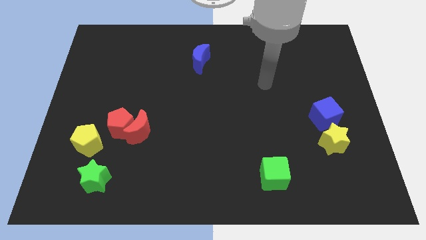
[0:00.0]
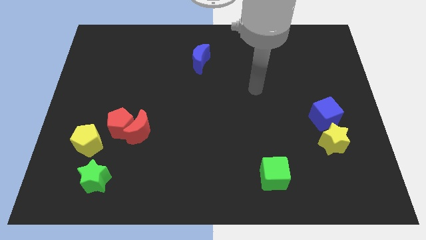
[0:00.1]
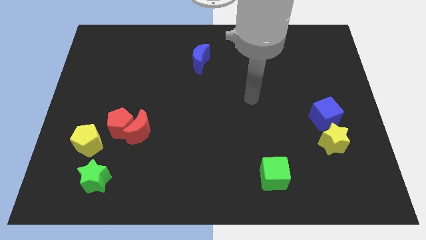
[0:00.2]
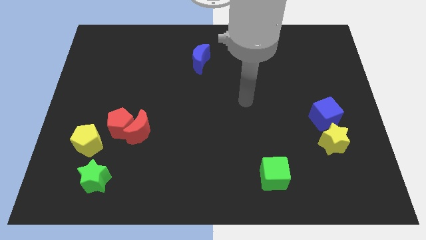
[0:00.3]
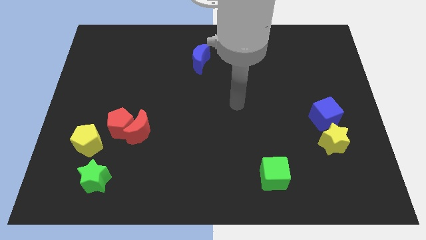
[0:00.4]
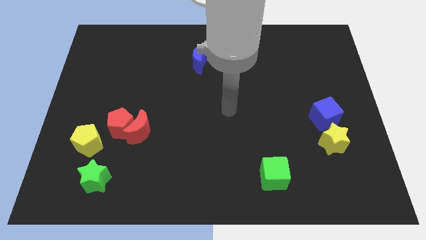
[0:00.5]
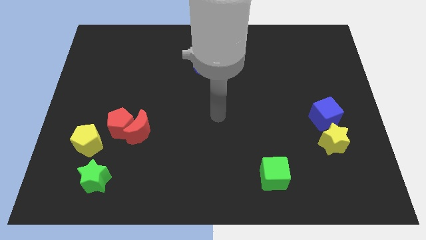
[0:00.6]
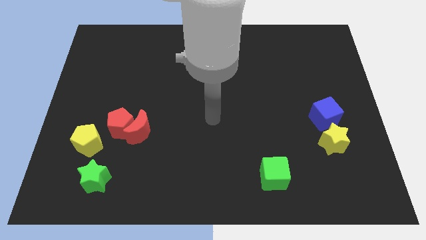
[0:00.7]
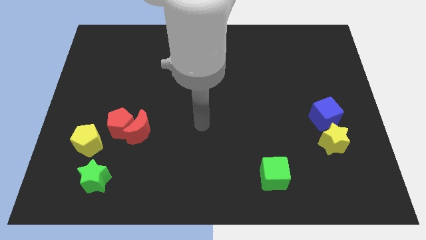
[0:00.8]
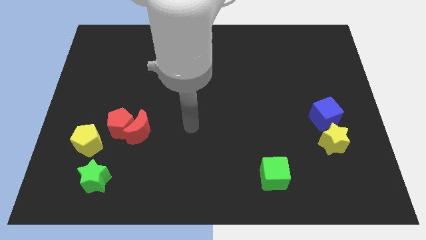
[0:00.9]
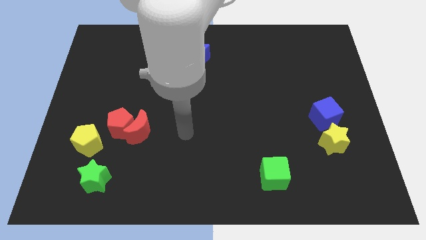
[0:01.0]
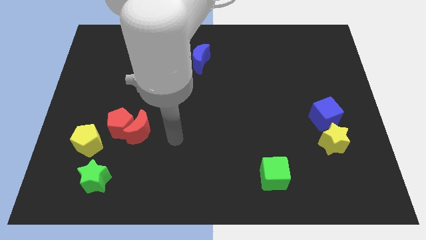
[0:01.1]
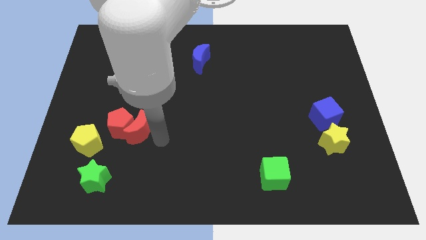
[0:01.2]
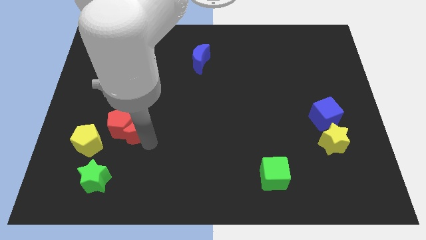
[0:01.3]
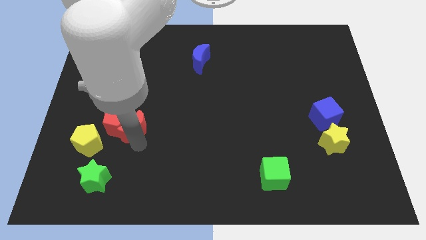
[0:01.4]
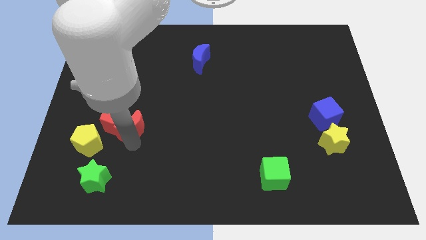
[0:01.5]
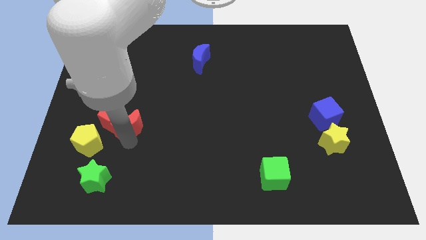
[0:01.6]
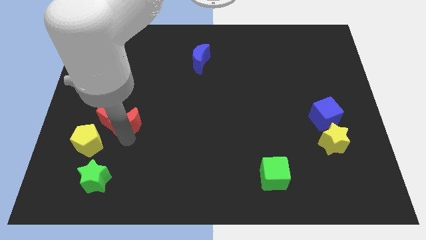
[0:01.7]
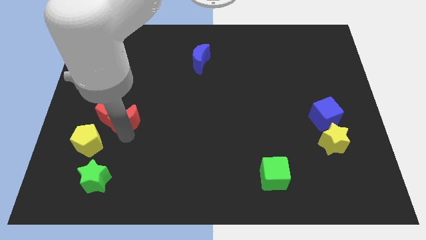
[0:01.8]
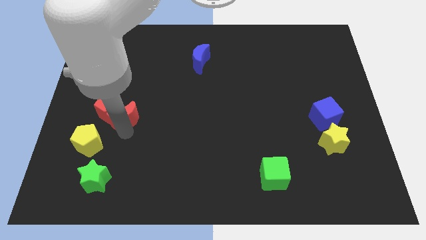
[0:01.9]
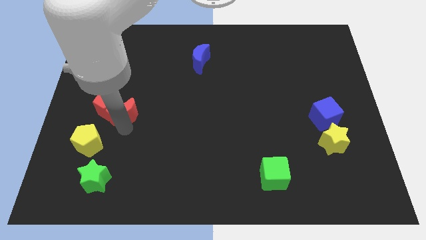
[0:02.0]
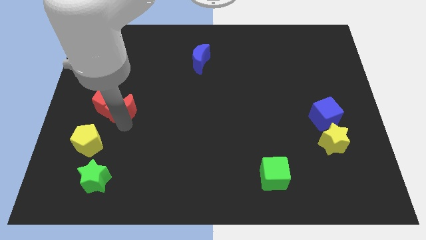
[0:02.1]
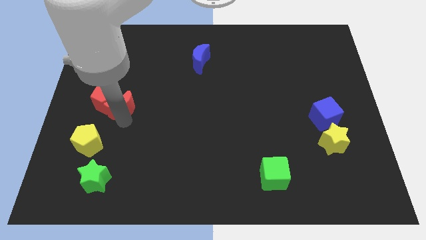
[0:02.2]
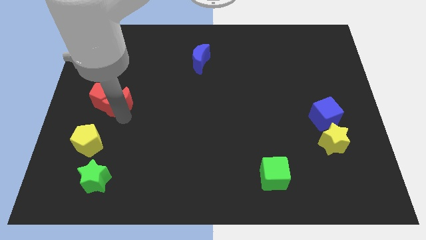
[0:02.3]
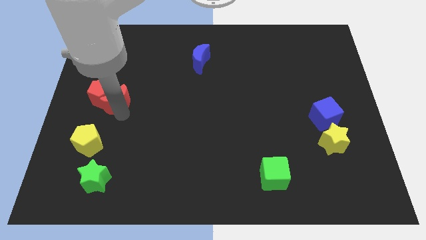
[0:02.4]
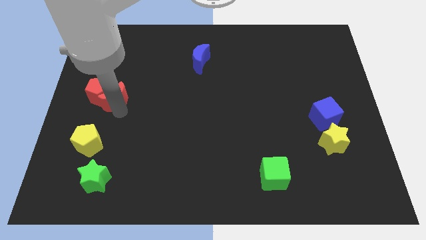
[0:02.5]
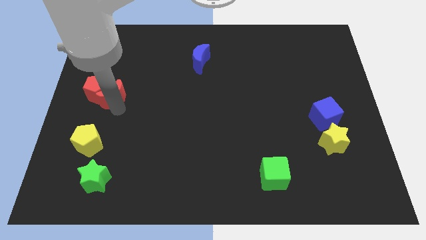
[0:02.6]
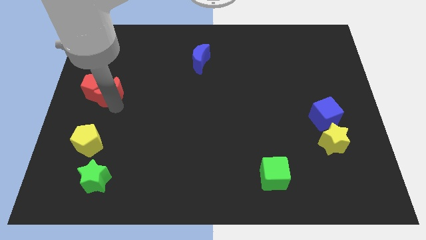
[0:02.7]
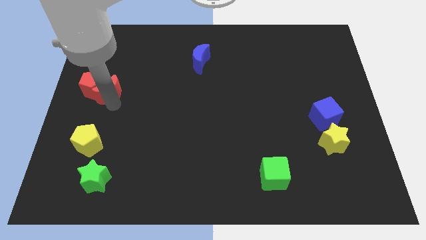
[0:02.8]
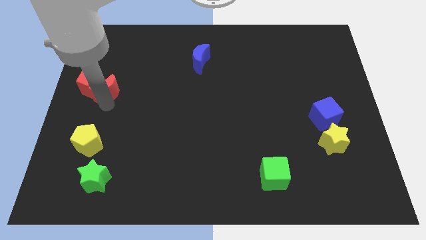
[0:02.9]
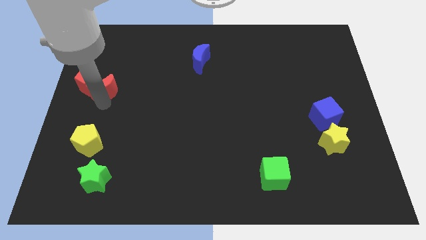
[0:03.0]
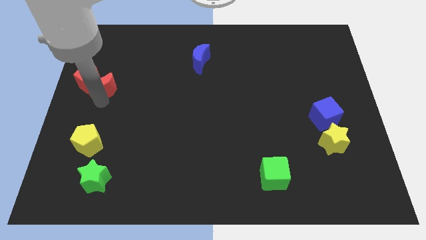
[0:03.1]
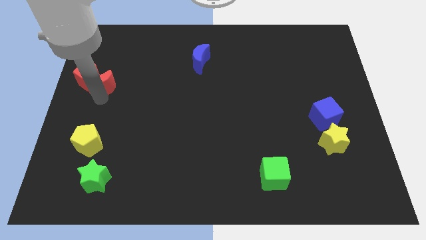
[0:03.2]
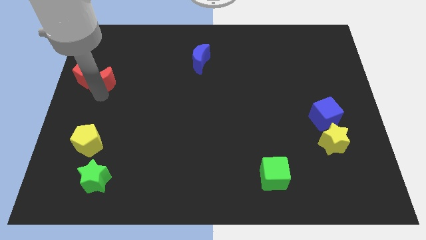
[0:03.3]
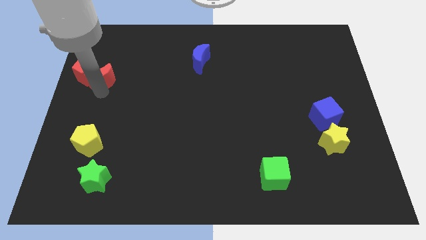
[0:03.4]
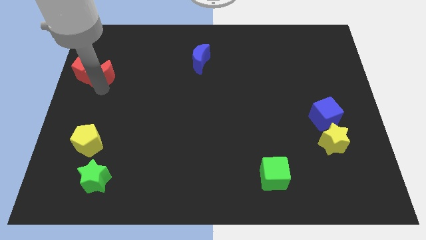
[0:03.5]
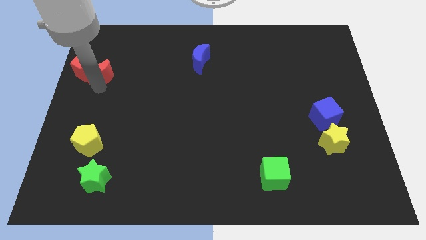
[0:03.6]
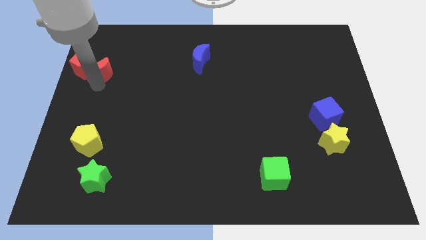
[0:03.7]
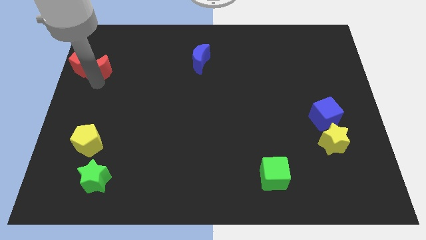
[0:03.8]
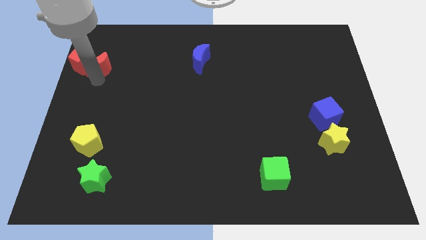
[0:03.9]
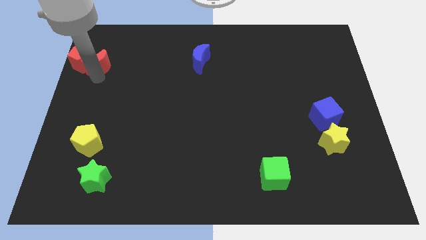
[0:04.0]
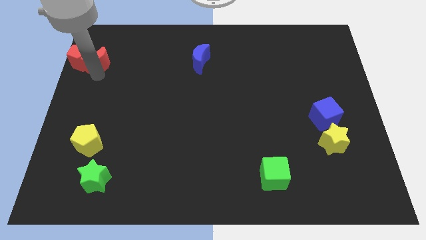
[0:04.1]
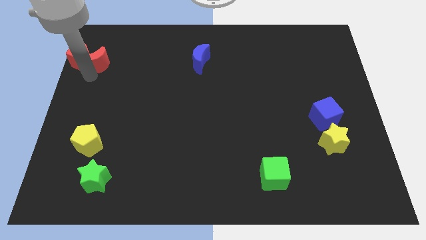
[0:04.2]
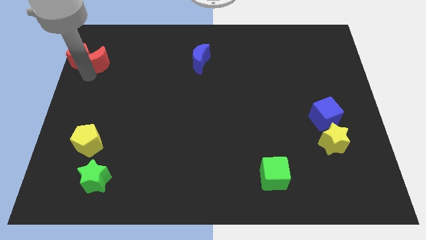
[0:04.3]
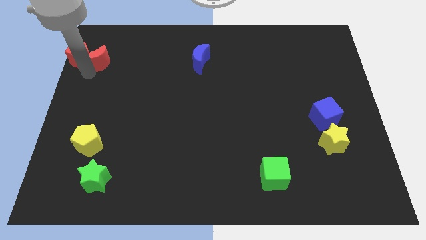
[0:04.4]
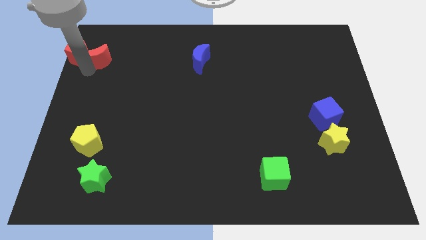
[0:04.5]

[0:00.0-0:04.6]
push the red pentagon to the top left

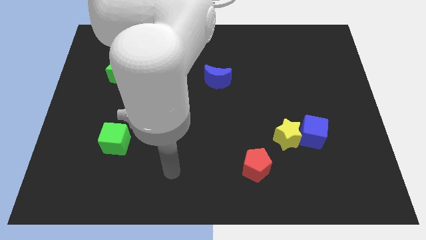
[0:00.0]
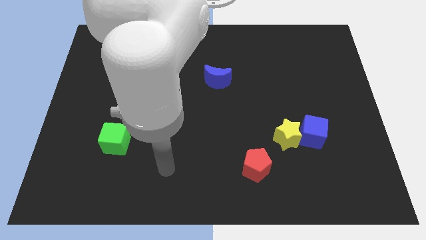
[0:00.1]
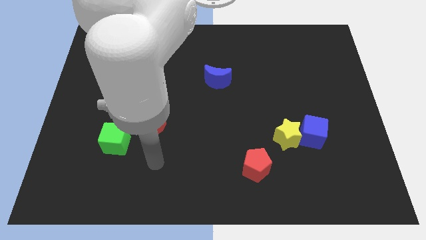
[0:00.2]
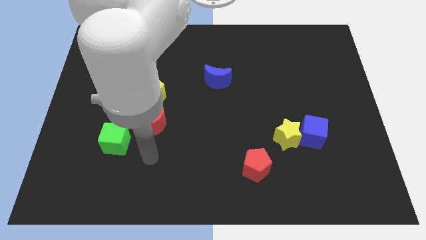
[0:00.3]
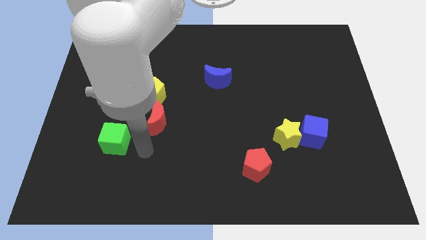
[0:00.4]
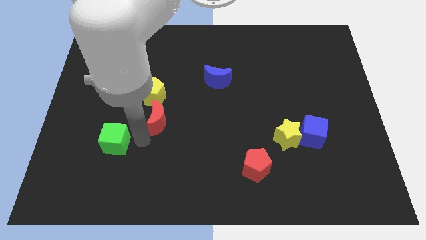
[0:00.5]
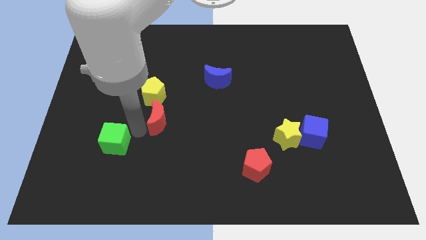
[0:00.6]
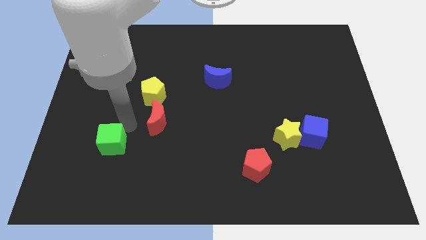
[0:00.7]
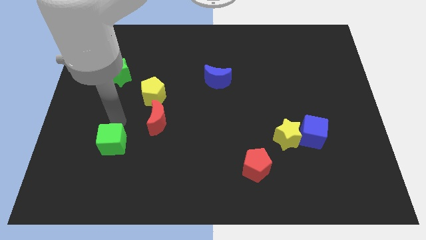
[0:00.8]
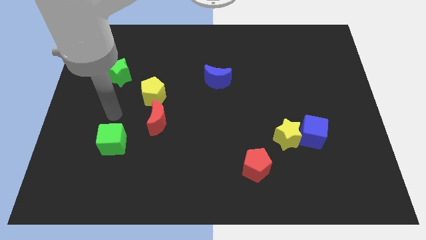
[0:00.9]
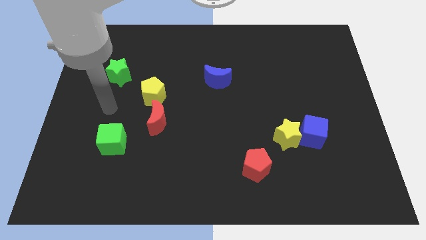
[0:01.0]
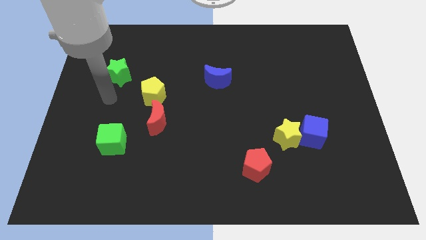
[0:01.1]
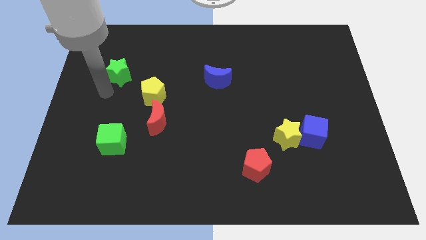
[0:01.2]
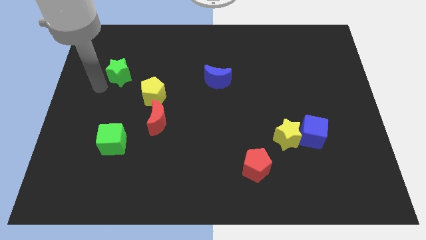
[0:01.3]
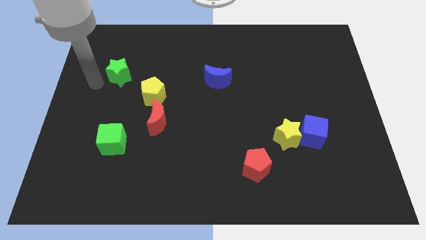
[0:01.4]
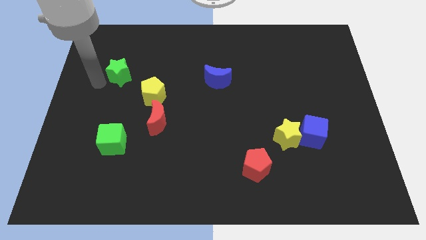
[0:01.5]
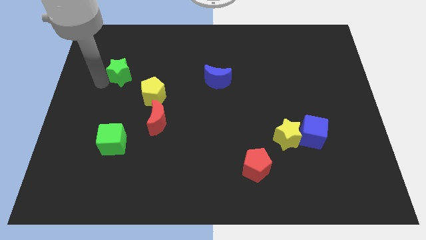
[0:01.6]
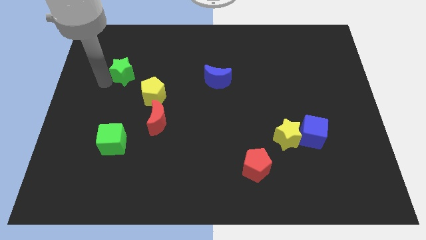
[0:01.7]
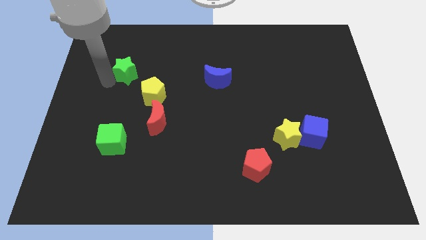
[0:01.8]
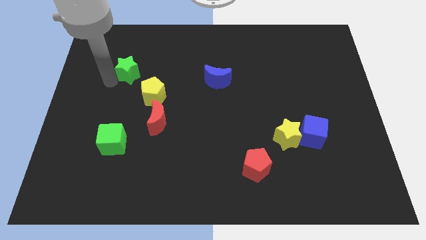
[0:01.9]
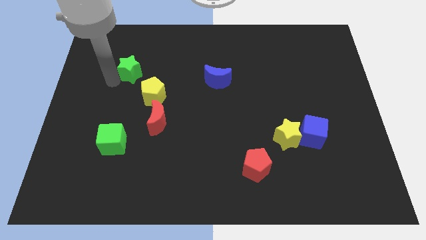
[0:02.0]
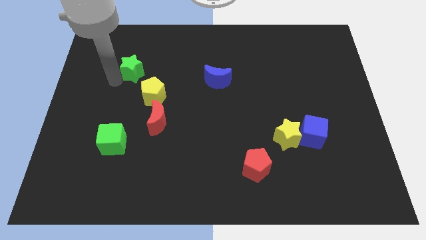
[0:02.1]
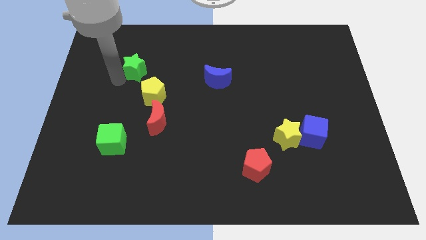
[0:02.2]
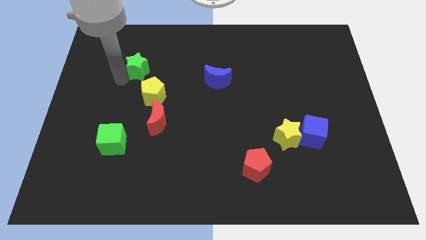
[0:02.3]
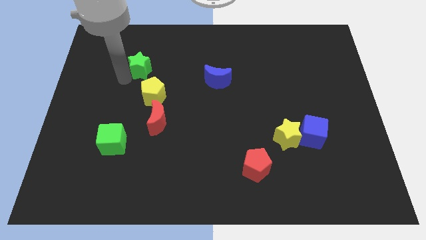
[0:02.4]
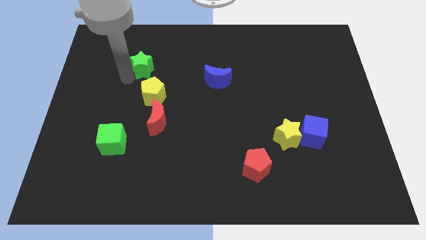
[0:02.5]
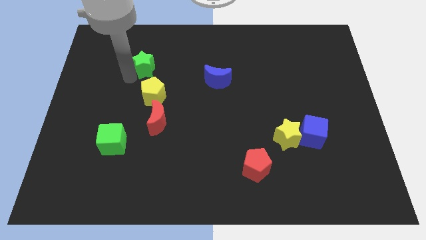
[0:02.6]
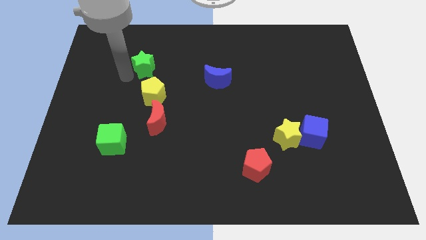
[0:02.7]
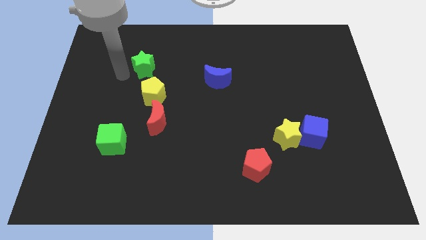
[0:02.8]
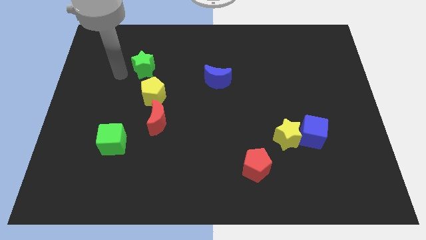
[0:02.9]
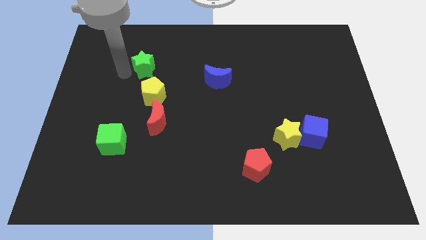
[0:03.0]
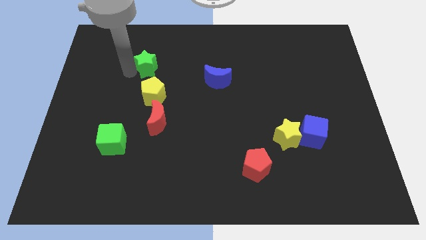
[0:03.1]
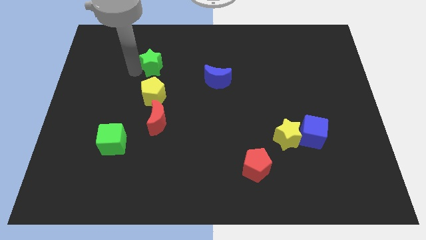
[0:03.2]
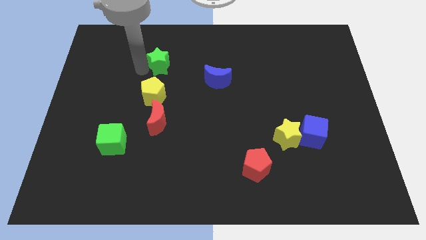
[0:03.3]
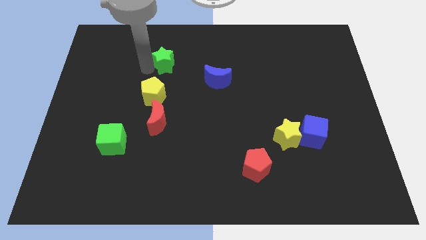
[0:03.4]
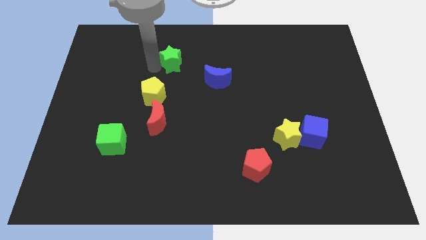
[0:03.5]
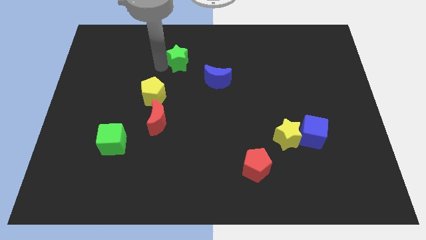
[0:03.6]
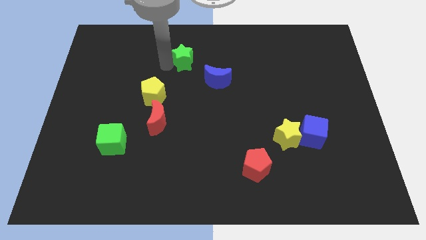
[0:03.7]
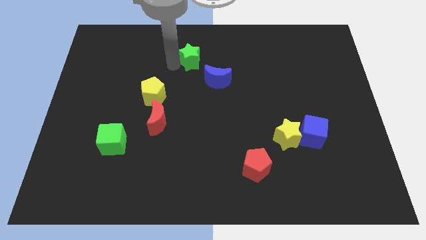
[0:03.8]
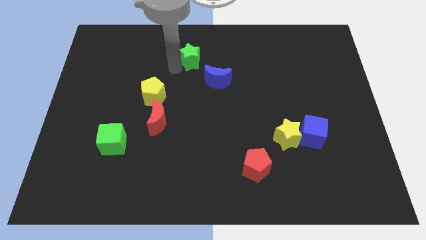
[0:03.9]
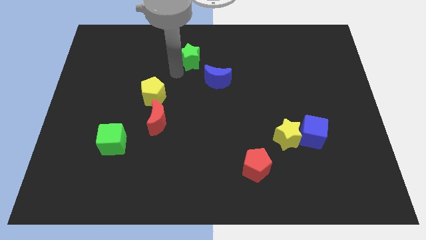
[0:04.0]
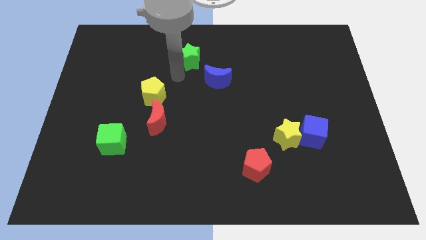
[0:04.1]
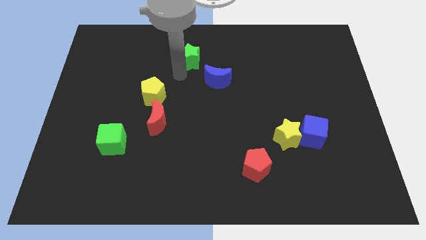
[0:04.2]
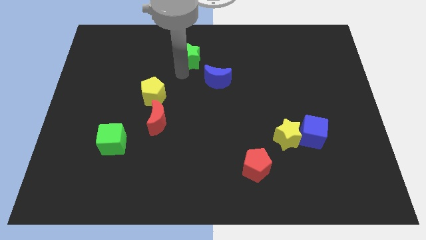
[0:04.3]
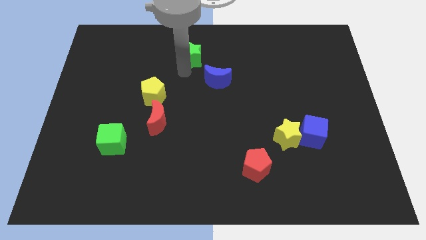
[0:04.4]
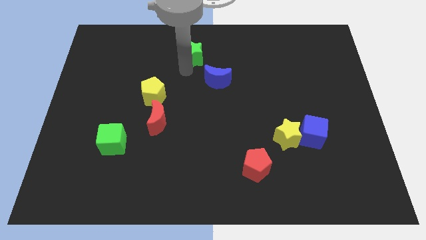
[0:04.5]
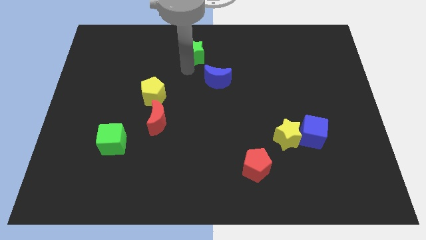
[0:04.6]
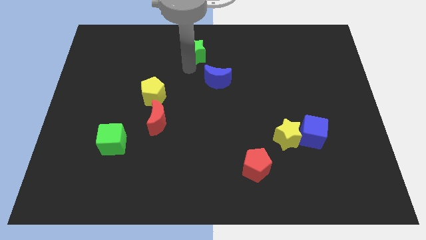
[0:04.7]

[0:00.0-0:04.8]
move the green star to the top
